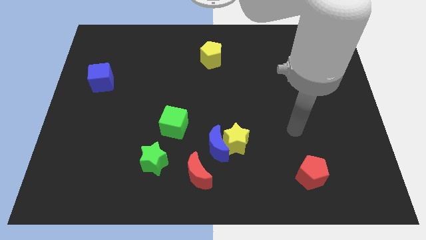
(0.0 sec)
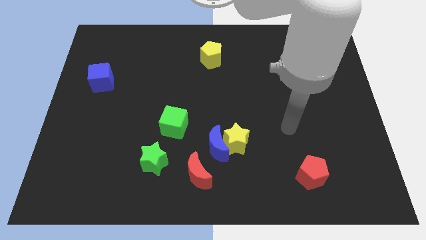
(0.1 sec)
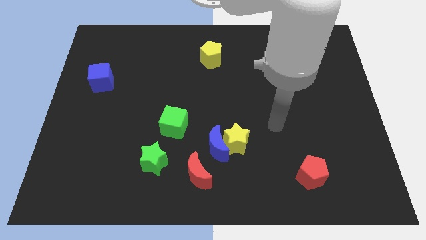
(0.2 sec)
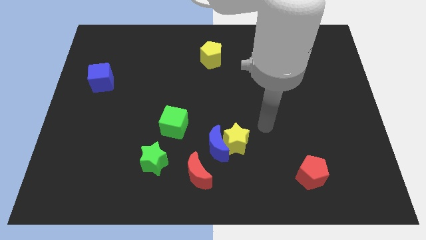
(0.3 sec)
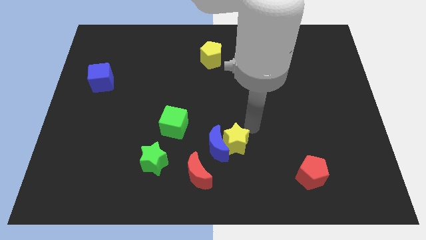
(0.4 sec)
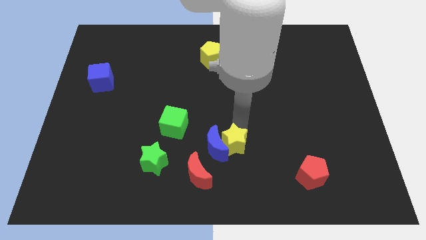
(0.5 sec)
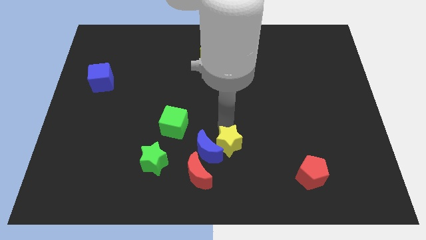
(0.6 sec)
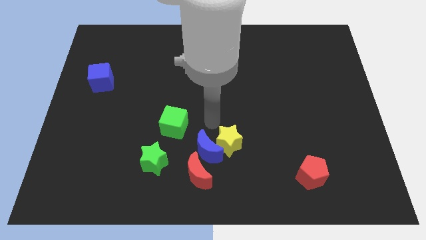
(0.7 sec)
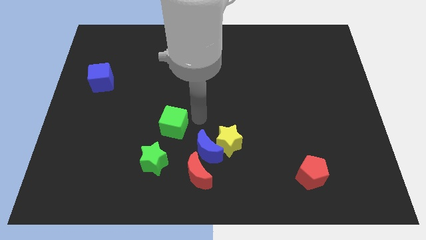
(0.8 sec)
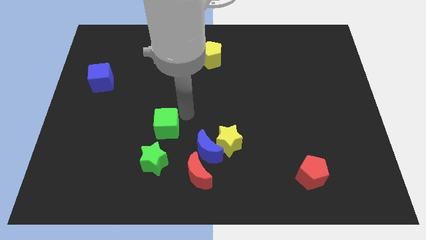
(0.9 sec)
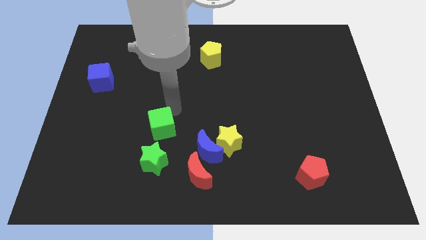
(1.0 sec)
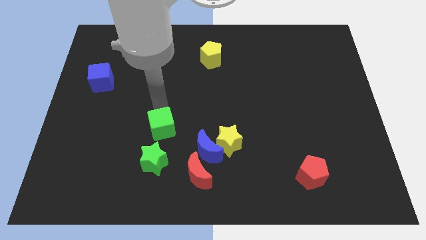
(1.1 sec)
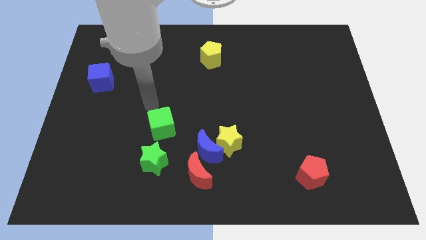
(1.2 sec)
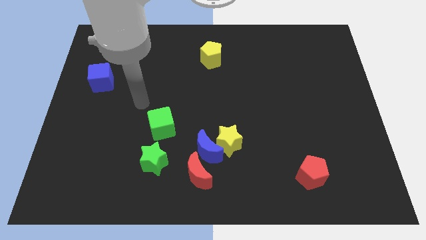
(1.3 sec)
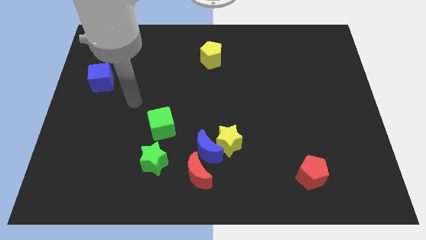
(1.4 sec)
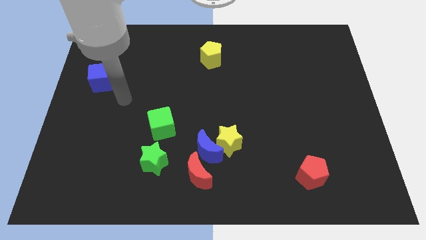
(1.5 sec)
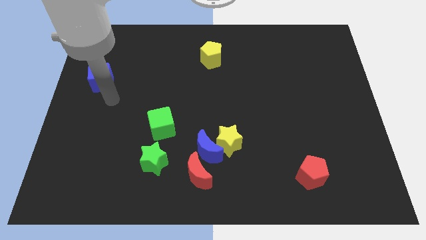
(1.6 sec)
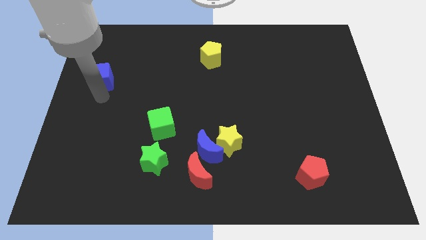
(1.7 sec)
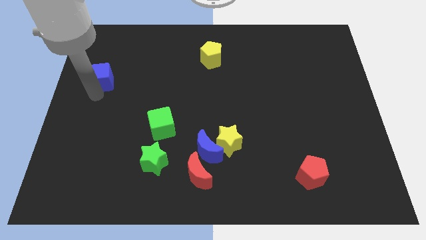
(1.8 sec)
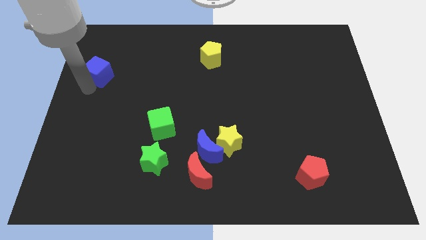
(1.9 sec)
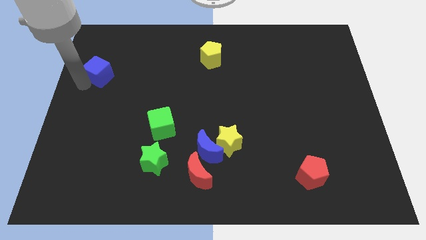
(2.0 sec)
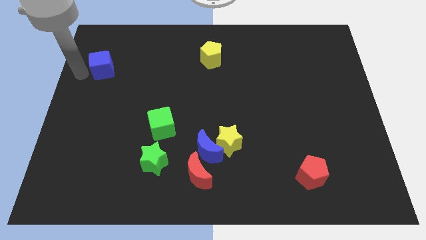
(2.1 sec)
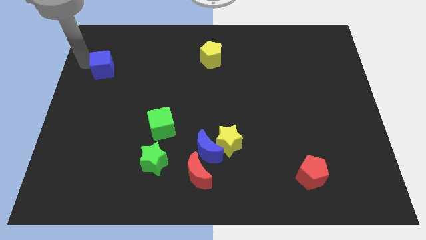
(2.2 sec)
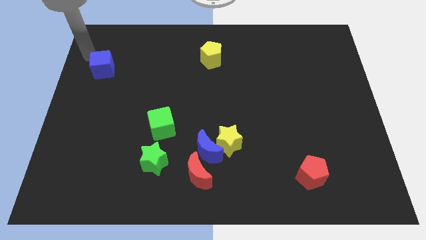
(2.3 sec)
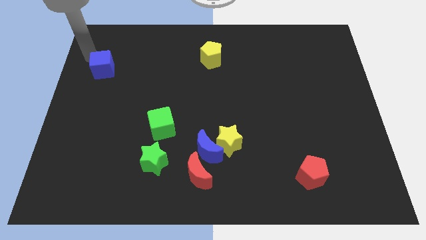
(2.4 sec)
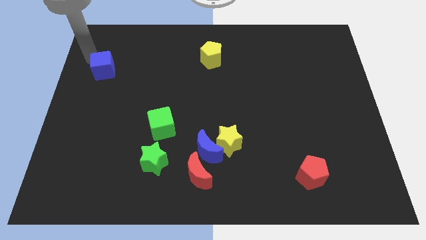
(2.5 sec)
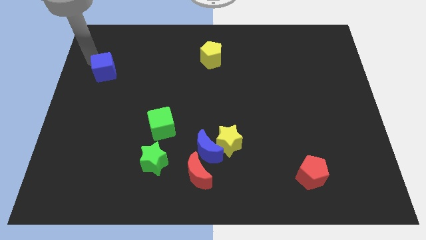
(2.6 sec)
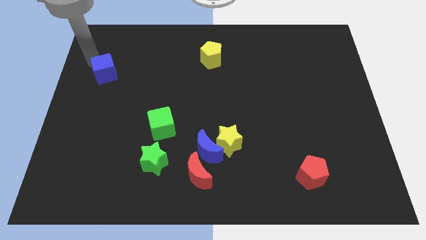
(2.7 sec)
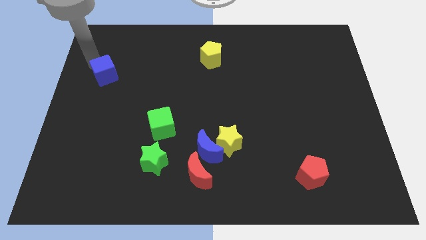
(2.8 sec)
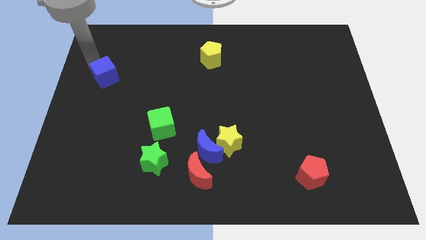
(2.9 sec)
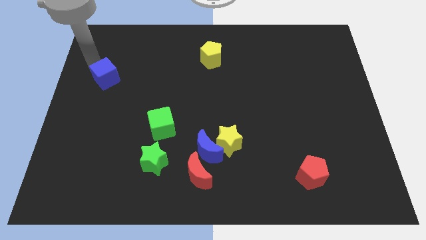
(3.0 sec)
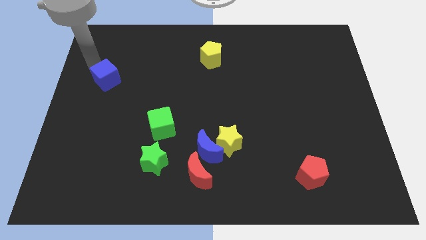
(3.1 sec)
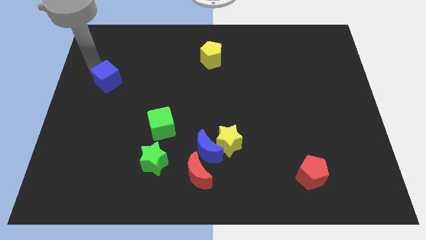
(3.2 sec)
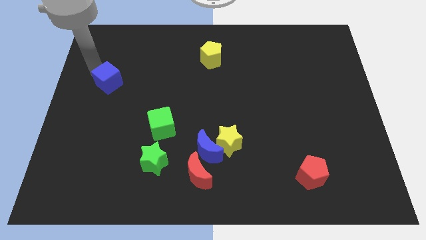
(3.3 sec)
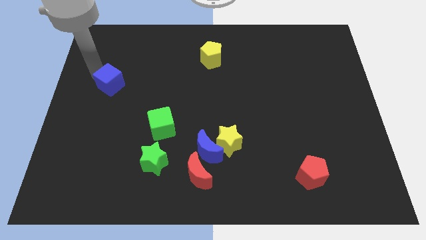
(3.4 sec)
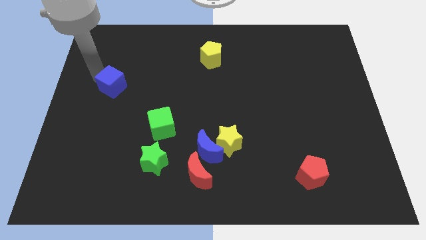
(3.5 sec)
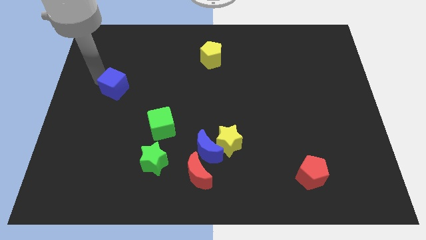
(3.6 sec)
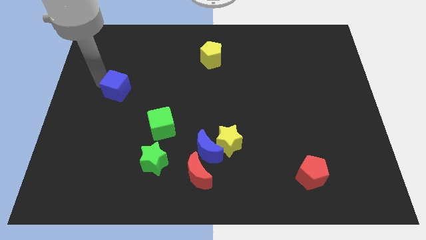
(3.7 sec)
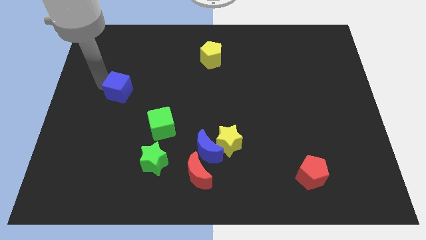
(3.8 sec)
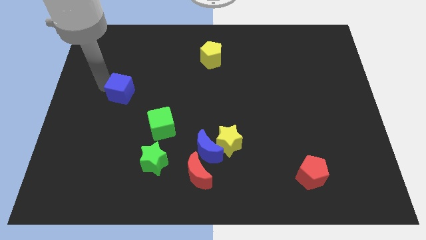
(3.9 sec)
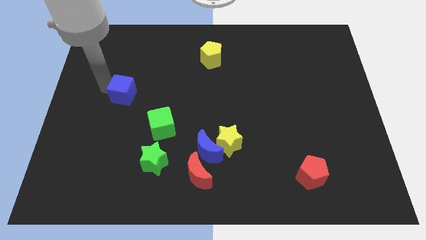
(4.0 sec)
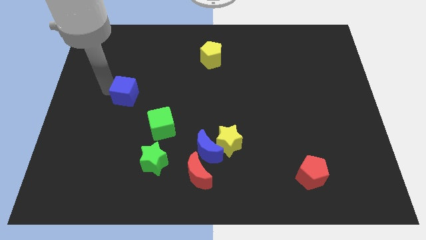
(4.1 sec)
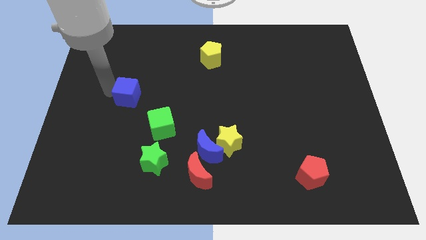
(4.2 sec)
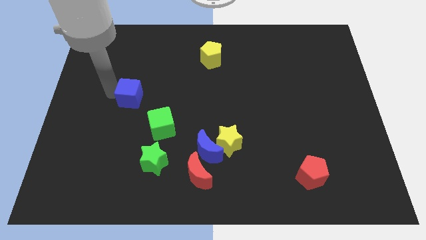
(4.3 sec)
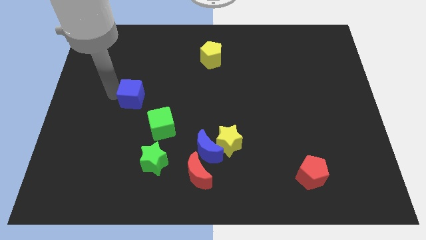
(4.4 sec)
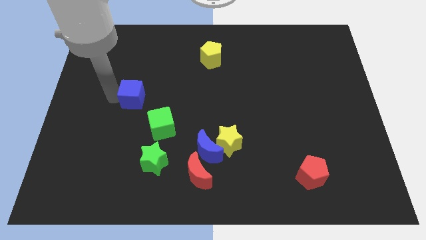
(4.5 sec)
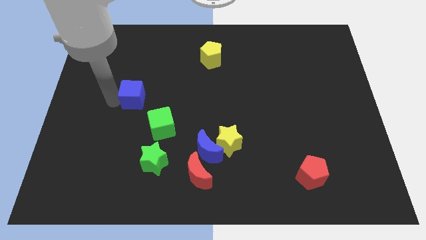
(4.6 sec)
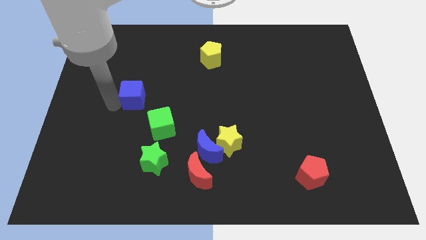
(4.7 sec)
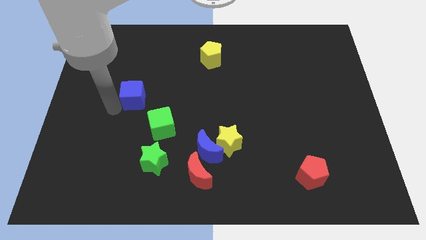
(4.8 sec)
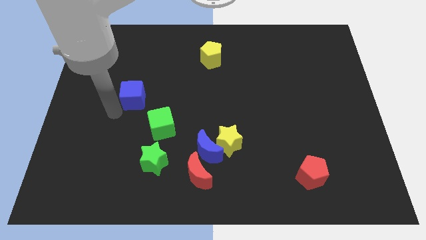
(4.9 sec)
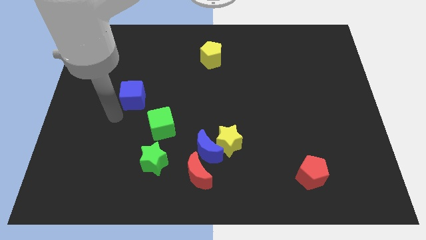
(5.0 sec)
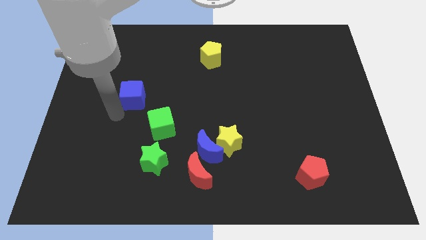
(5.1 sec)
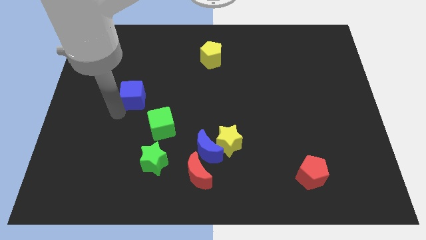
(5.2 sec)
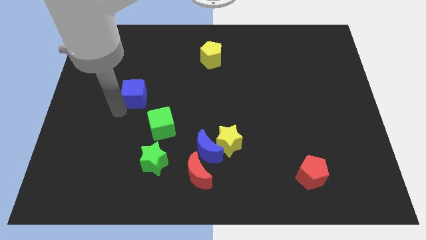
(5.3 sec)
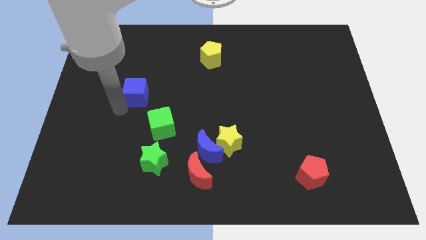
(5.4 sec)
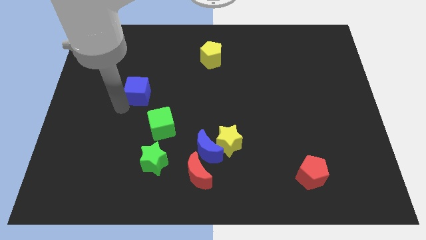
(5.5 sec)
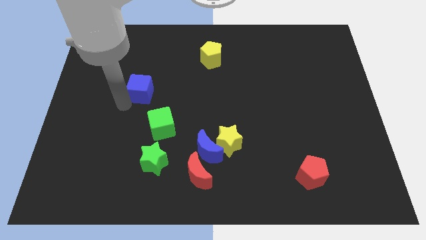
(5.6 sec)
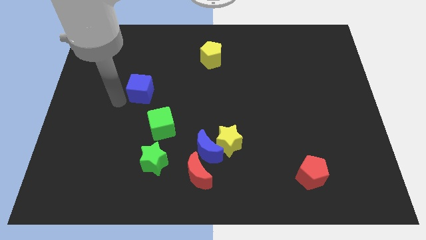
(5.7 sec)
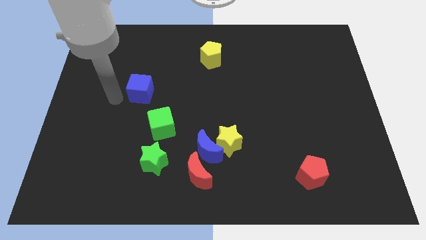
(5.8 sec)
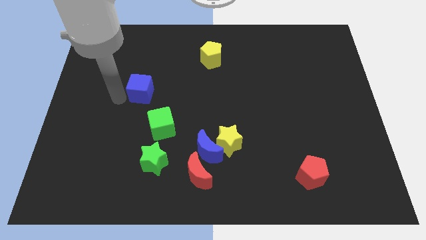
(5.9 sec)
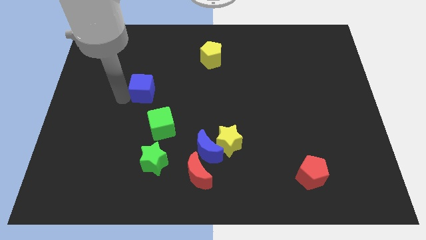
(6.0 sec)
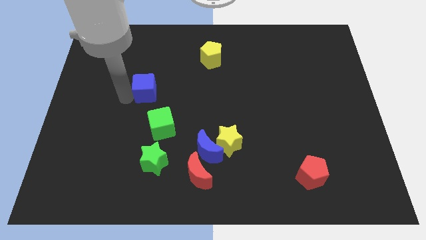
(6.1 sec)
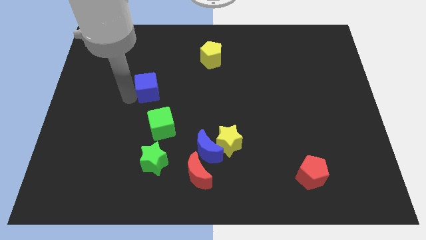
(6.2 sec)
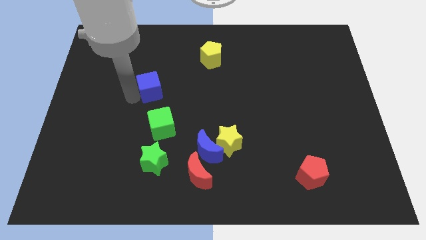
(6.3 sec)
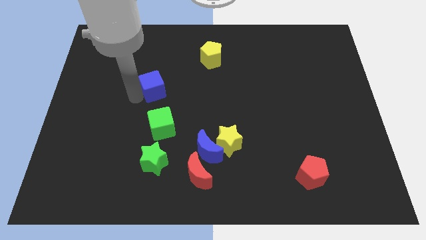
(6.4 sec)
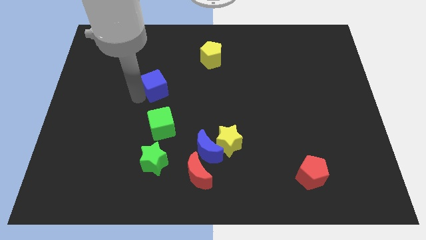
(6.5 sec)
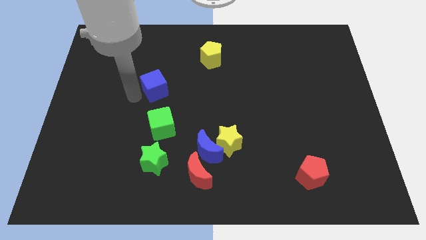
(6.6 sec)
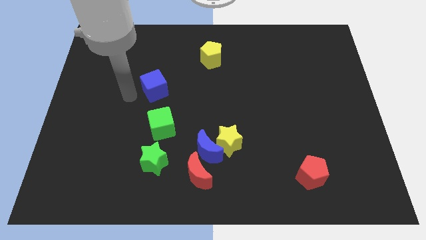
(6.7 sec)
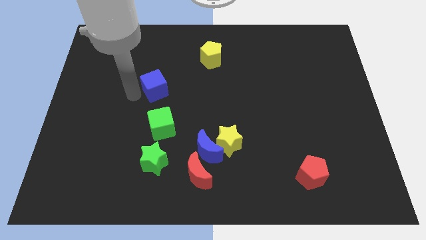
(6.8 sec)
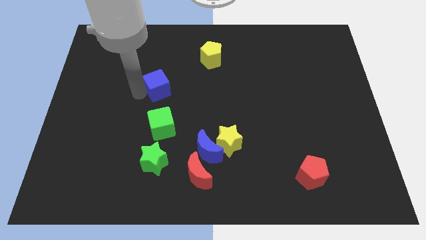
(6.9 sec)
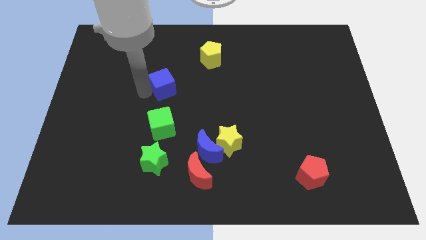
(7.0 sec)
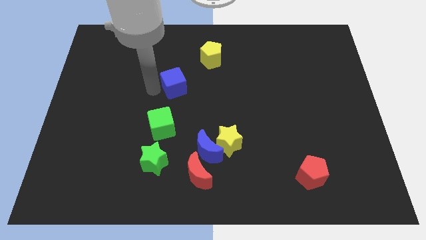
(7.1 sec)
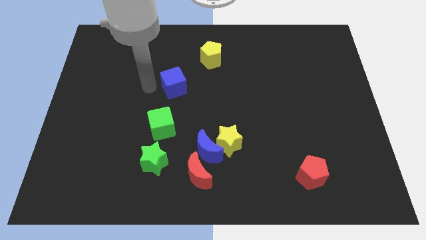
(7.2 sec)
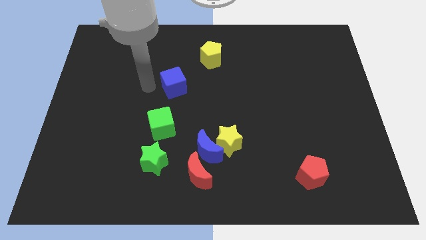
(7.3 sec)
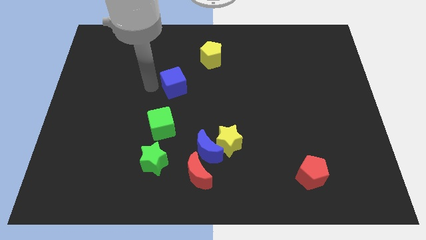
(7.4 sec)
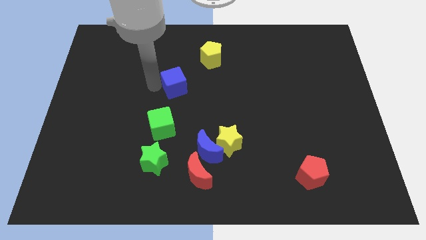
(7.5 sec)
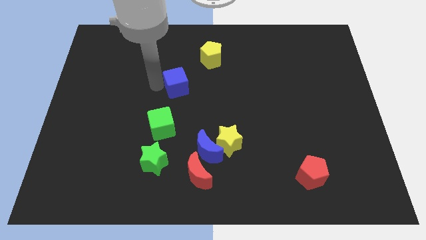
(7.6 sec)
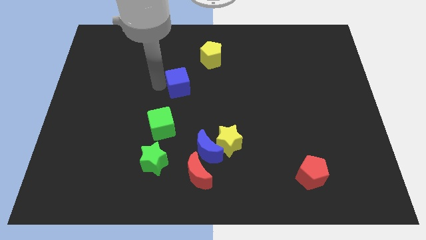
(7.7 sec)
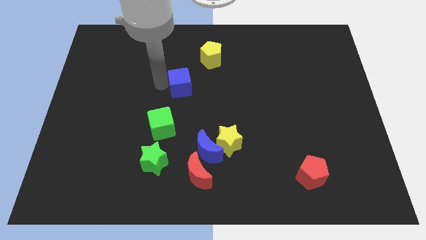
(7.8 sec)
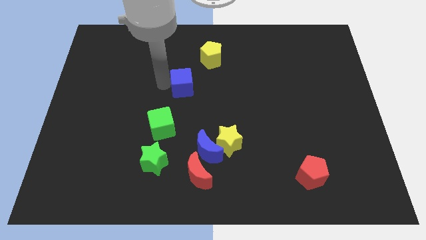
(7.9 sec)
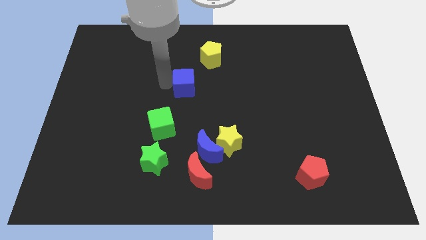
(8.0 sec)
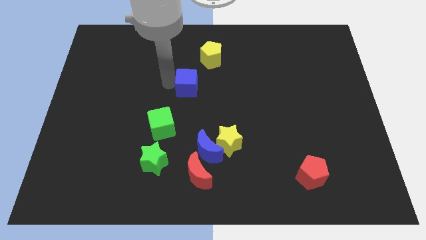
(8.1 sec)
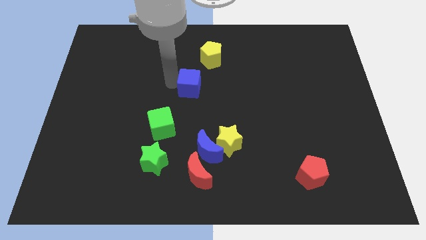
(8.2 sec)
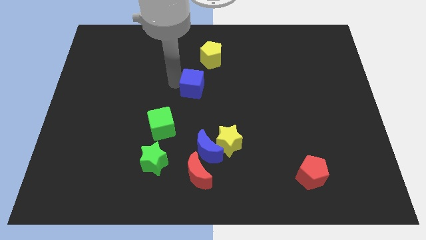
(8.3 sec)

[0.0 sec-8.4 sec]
slide the blue cube to the bottom of the yellow pentagon
